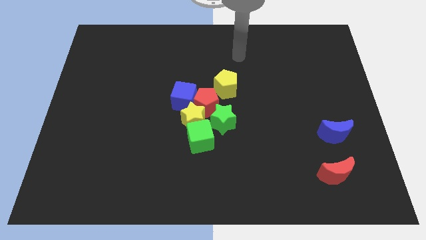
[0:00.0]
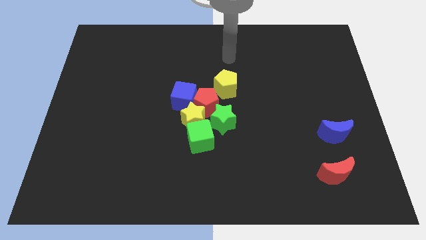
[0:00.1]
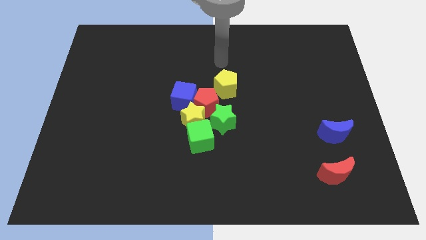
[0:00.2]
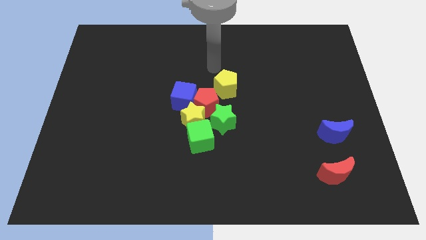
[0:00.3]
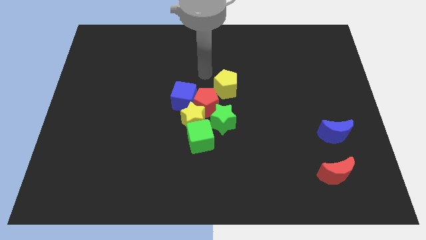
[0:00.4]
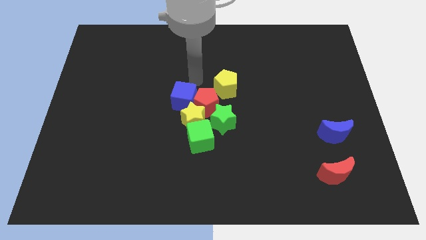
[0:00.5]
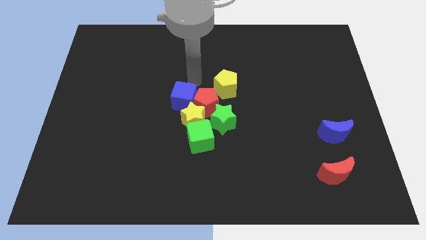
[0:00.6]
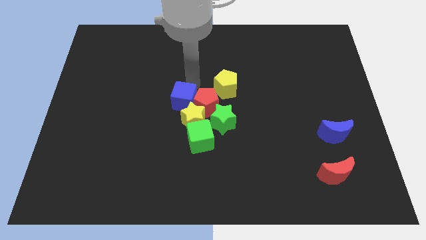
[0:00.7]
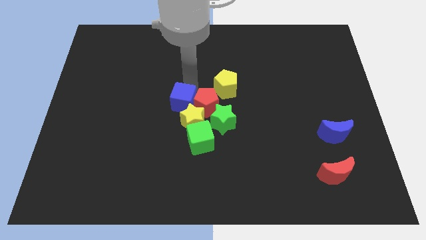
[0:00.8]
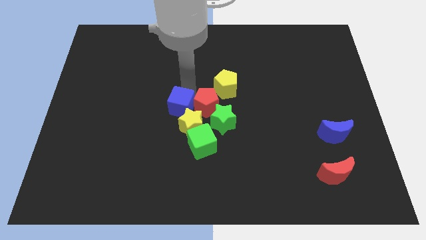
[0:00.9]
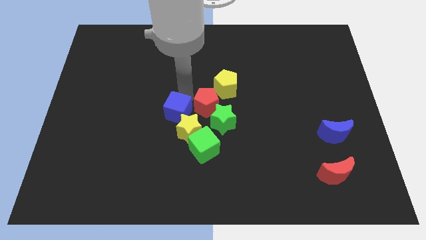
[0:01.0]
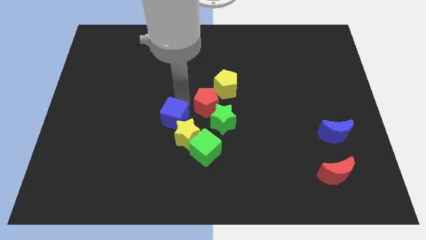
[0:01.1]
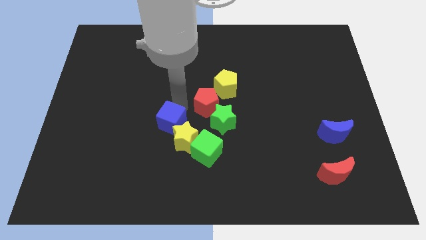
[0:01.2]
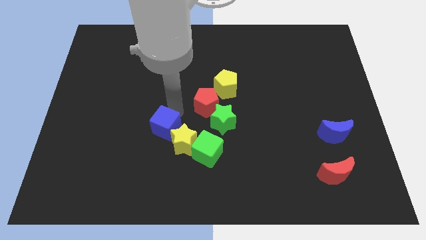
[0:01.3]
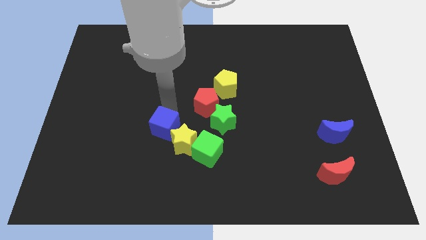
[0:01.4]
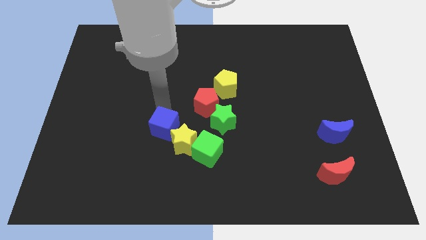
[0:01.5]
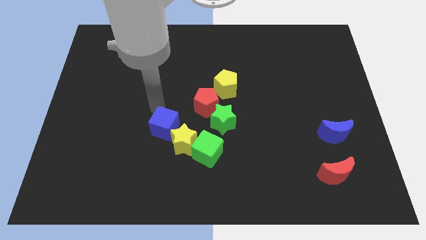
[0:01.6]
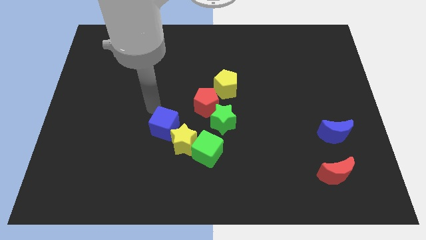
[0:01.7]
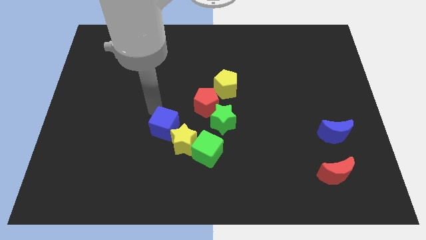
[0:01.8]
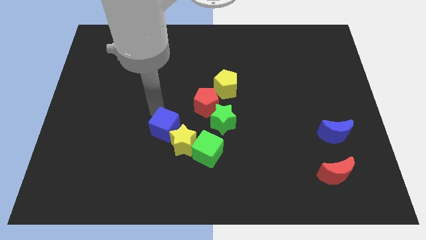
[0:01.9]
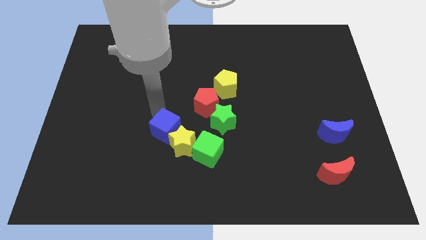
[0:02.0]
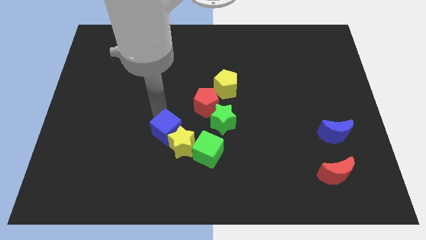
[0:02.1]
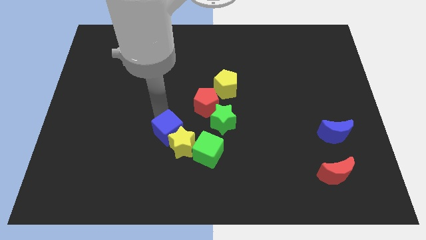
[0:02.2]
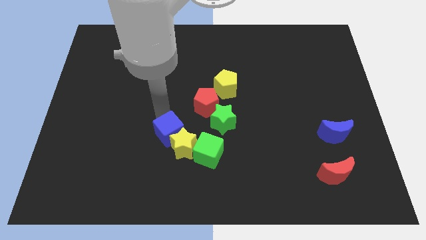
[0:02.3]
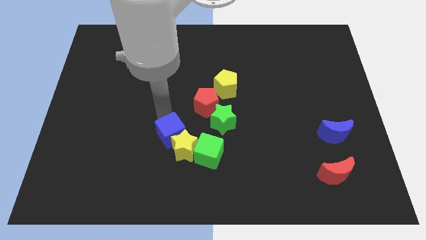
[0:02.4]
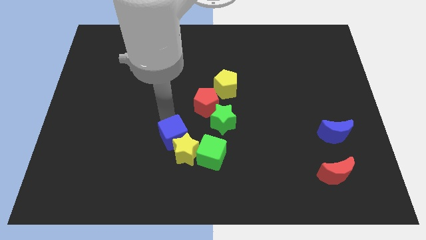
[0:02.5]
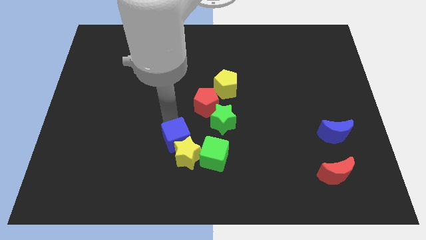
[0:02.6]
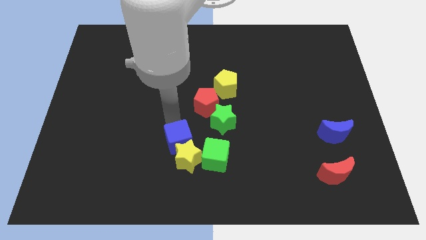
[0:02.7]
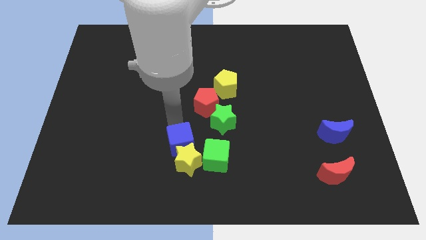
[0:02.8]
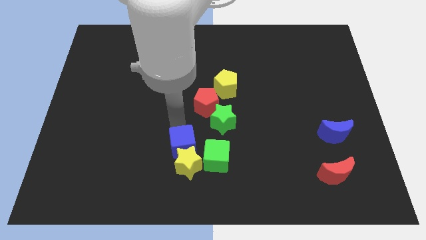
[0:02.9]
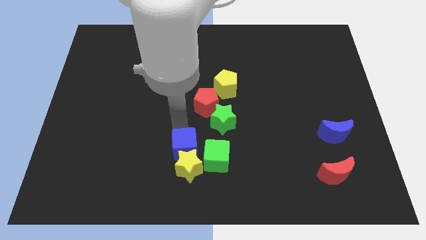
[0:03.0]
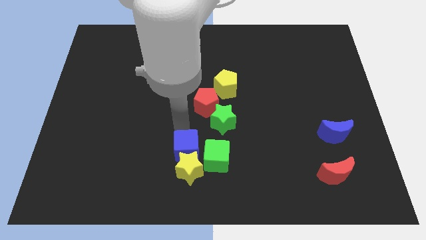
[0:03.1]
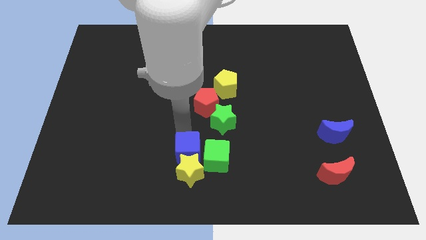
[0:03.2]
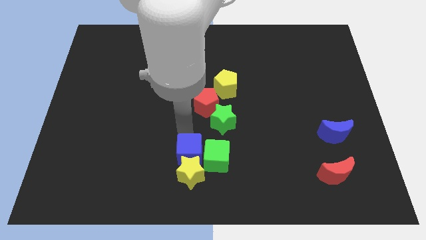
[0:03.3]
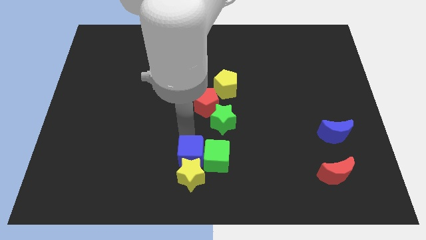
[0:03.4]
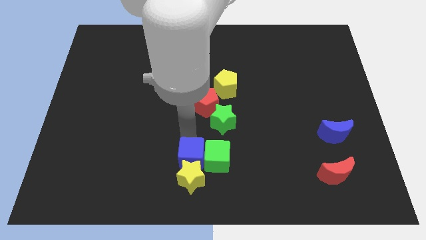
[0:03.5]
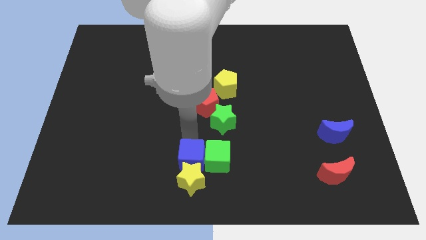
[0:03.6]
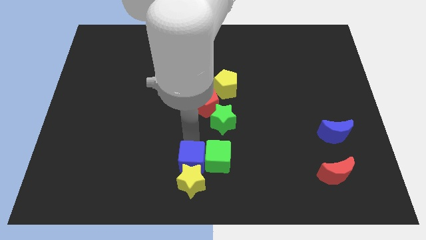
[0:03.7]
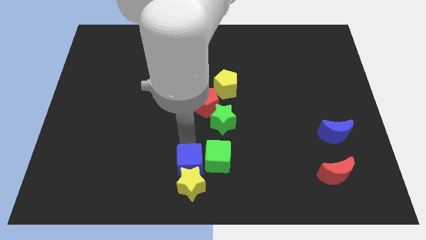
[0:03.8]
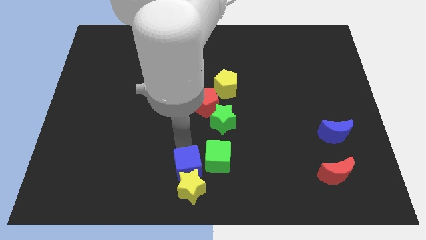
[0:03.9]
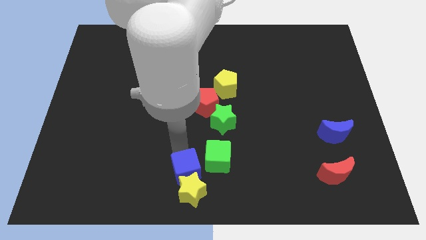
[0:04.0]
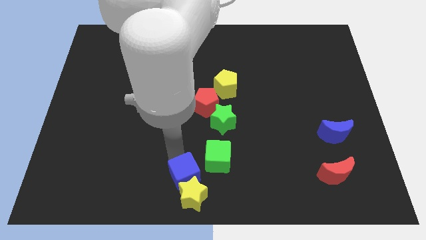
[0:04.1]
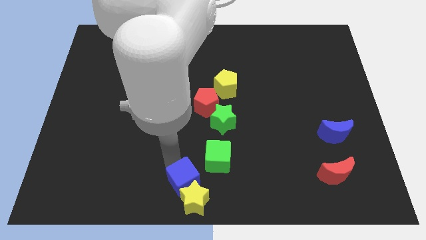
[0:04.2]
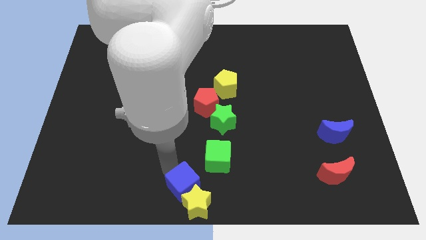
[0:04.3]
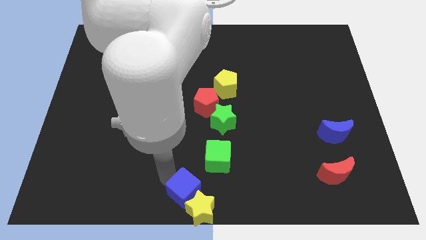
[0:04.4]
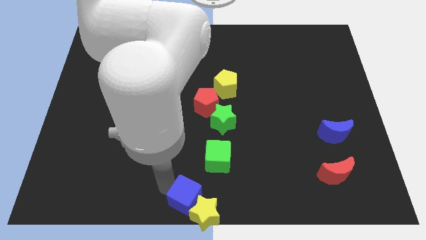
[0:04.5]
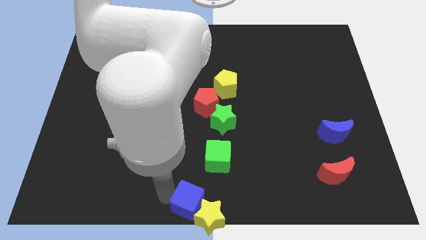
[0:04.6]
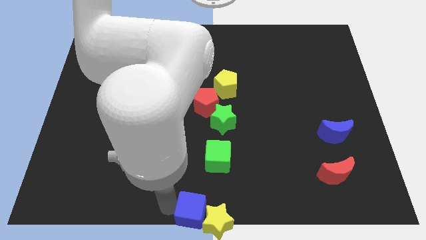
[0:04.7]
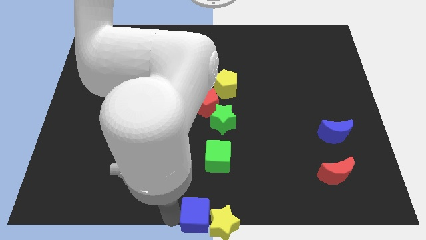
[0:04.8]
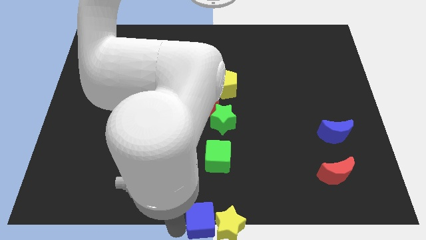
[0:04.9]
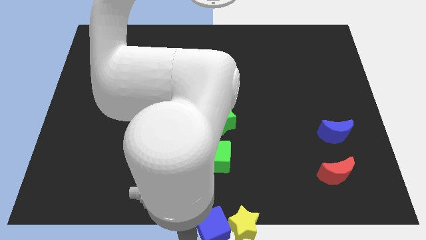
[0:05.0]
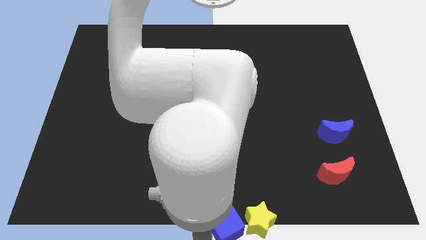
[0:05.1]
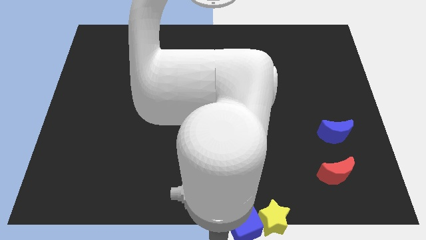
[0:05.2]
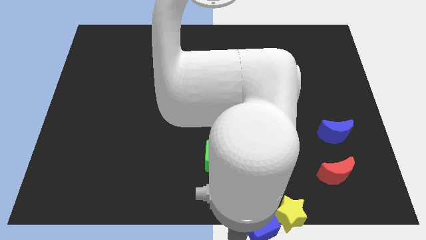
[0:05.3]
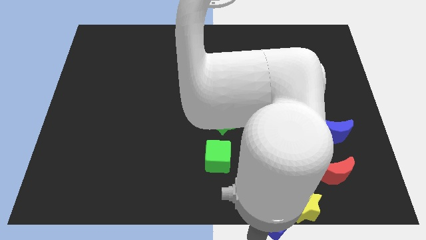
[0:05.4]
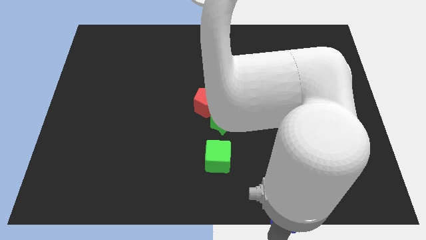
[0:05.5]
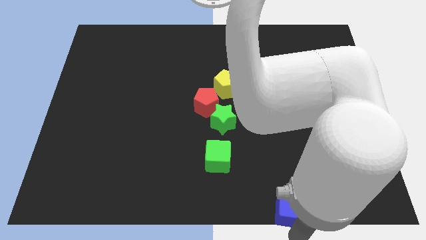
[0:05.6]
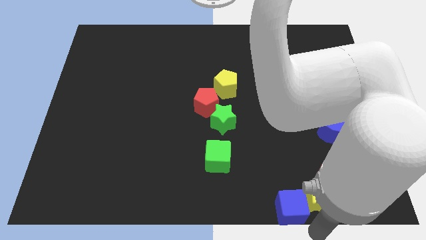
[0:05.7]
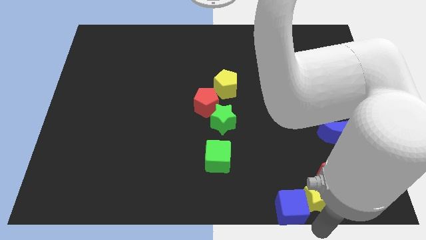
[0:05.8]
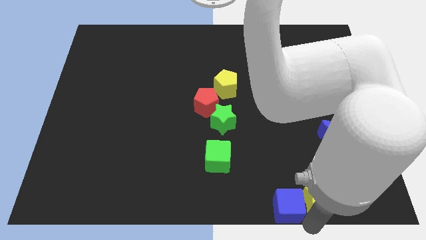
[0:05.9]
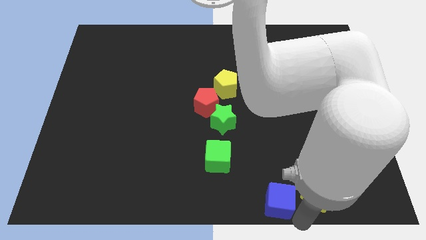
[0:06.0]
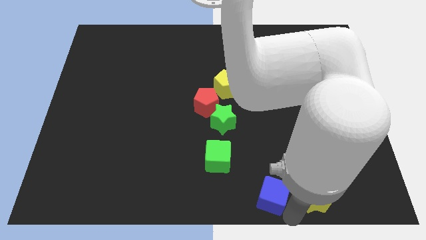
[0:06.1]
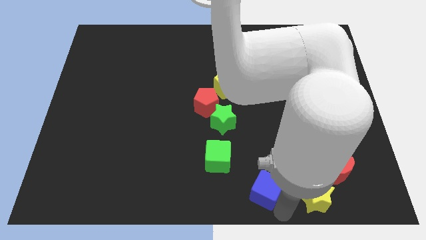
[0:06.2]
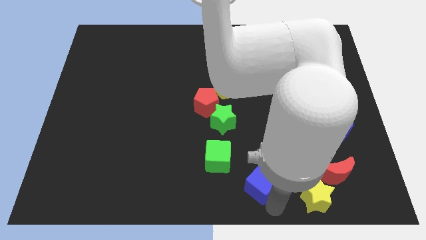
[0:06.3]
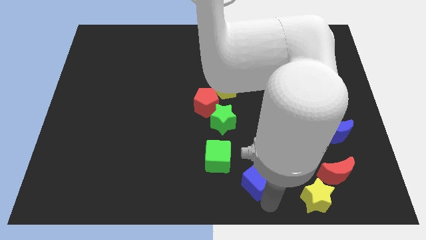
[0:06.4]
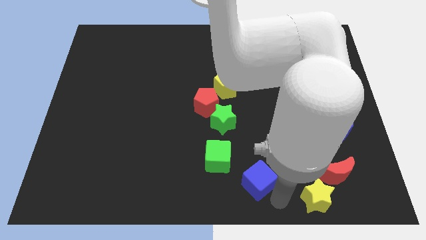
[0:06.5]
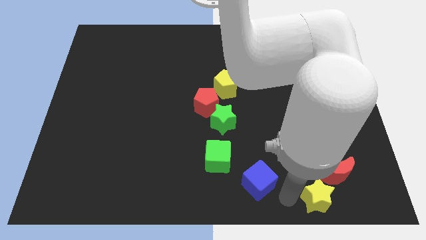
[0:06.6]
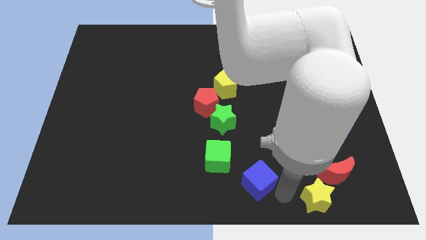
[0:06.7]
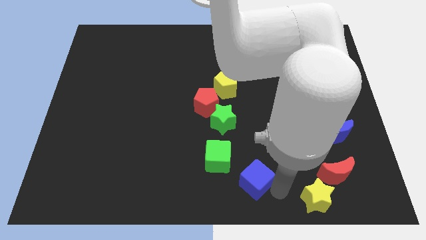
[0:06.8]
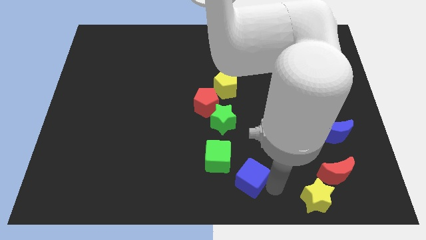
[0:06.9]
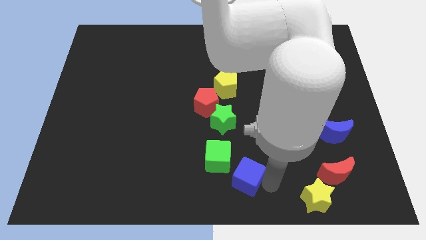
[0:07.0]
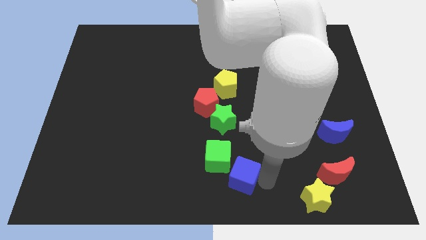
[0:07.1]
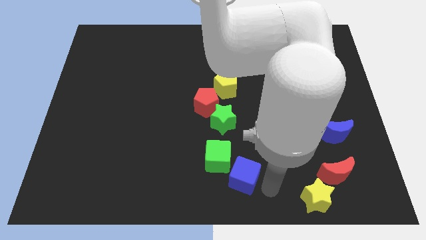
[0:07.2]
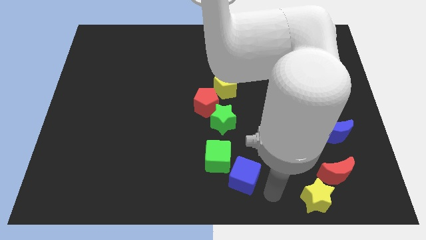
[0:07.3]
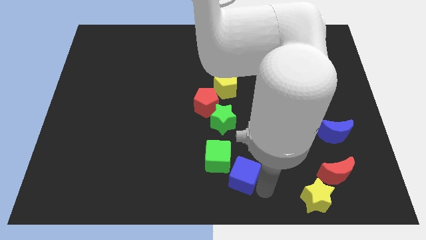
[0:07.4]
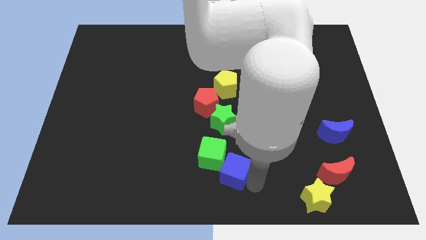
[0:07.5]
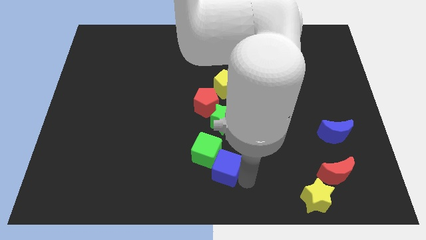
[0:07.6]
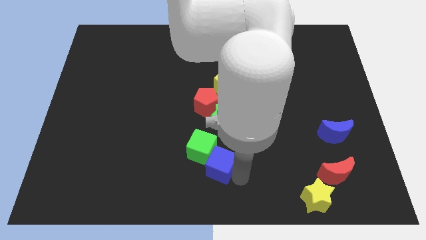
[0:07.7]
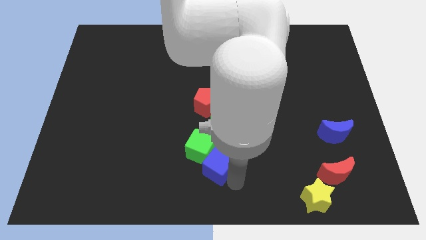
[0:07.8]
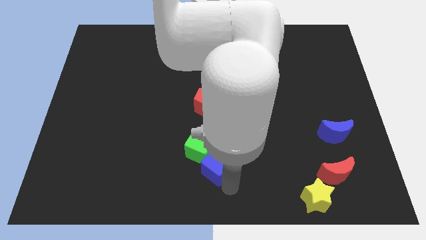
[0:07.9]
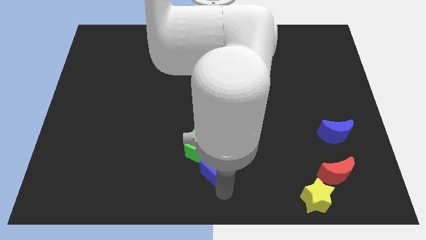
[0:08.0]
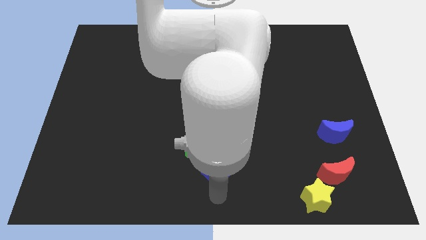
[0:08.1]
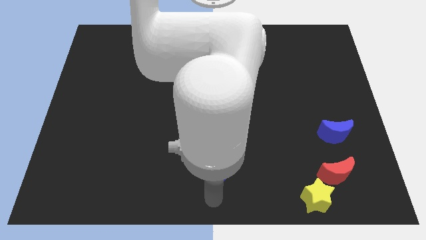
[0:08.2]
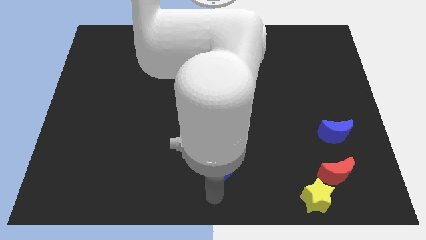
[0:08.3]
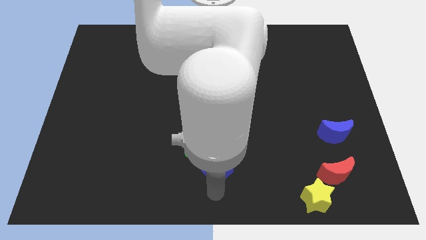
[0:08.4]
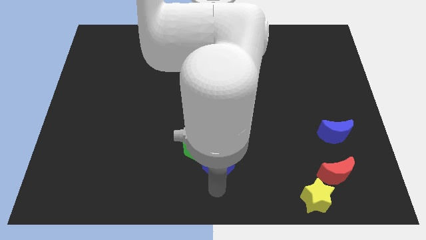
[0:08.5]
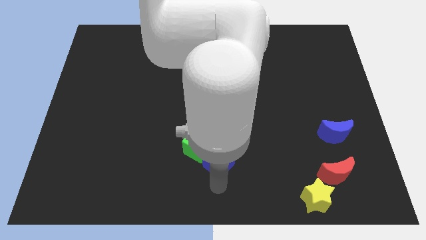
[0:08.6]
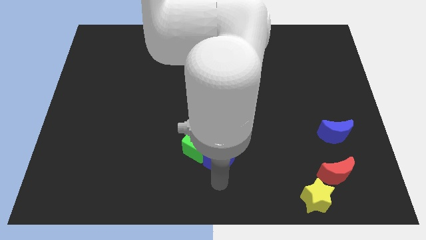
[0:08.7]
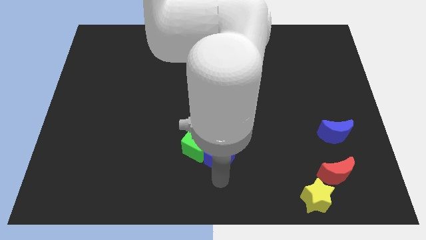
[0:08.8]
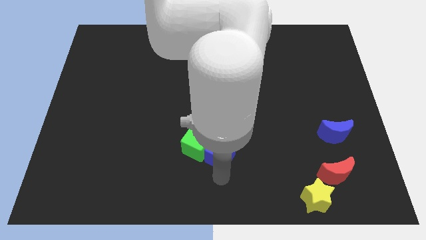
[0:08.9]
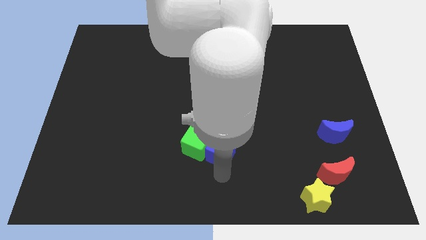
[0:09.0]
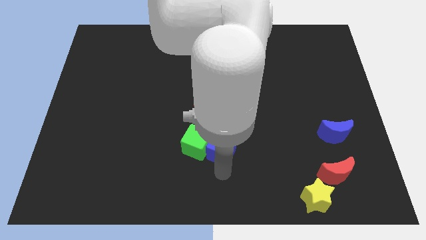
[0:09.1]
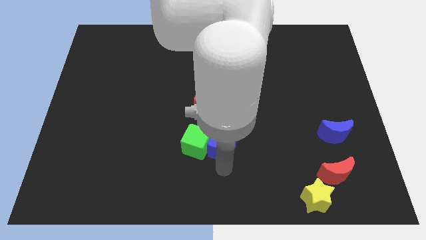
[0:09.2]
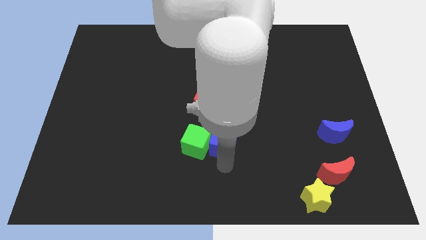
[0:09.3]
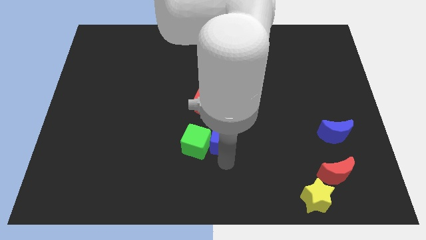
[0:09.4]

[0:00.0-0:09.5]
put the blue cube close to the green star
